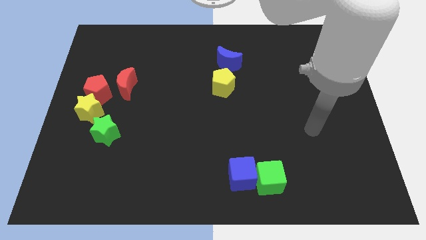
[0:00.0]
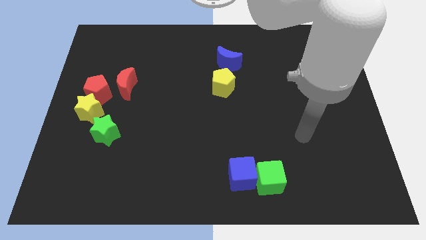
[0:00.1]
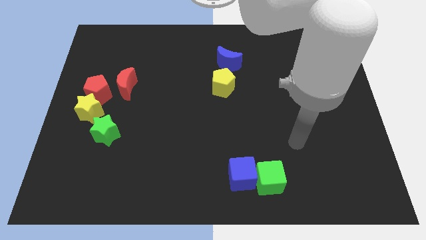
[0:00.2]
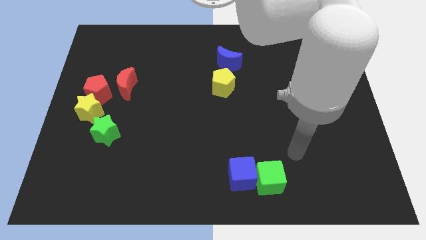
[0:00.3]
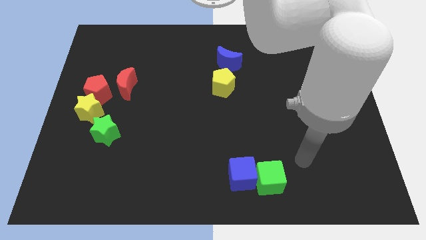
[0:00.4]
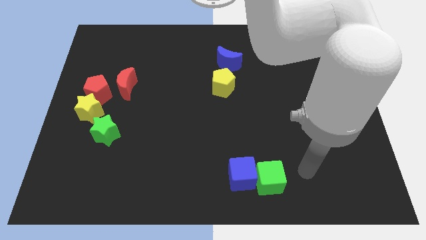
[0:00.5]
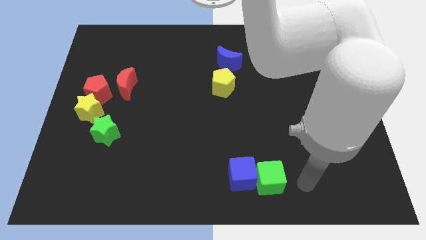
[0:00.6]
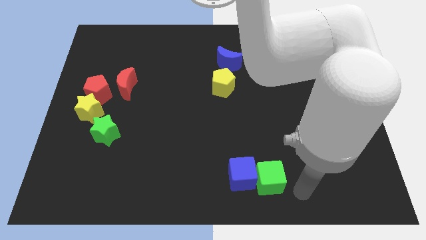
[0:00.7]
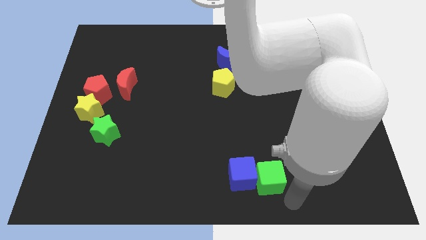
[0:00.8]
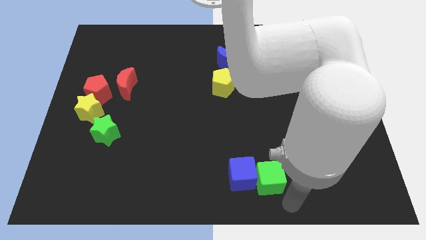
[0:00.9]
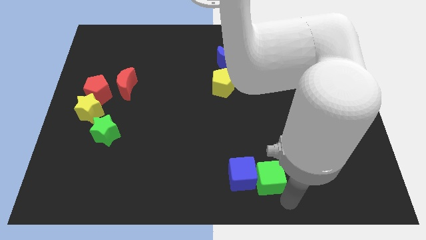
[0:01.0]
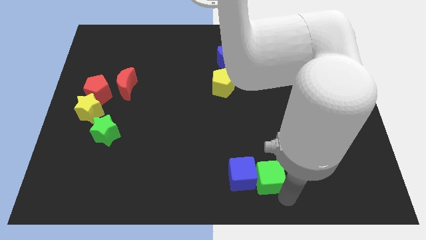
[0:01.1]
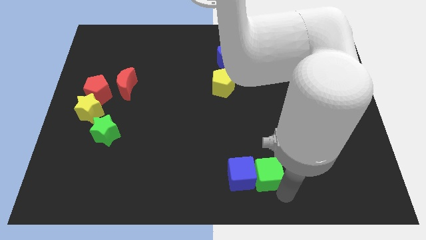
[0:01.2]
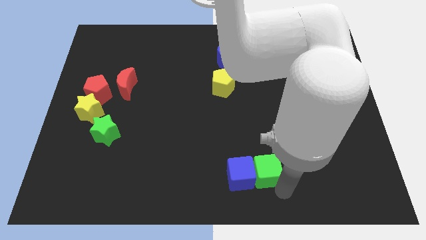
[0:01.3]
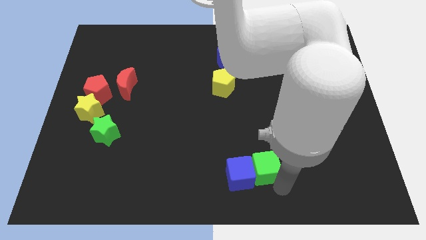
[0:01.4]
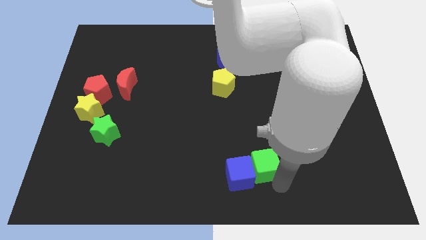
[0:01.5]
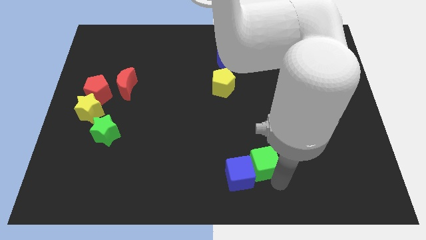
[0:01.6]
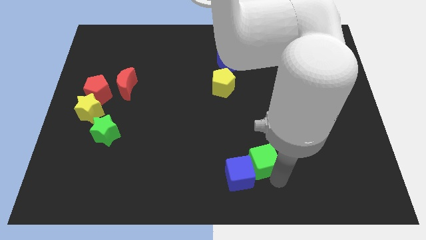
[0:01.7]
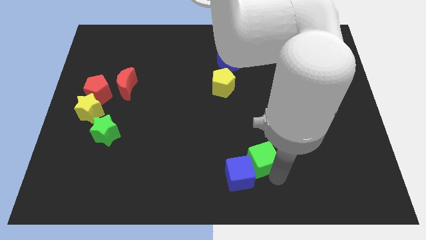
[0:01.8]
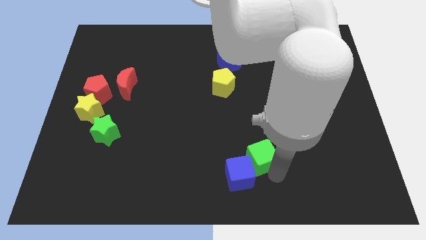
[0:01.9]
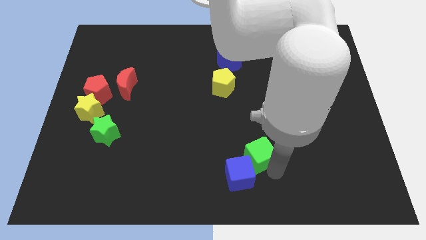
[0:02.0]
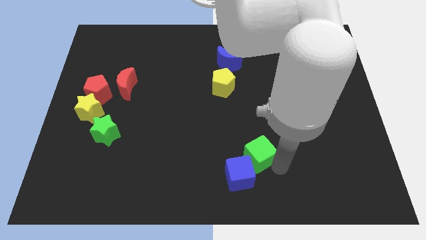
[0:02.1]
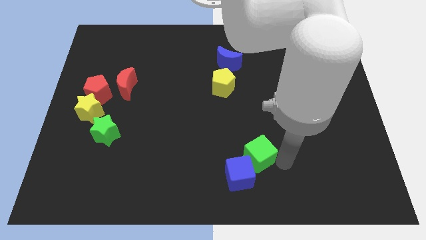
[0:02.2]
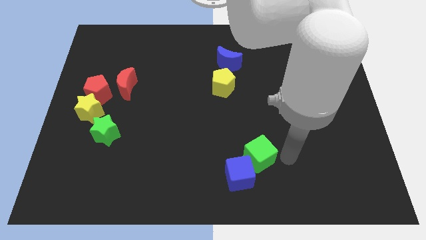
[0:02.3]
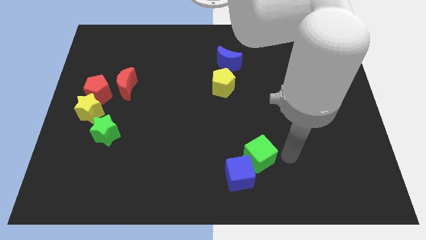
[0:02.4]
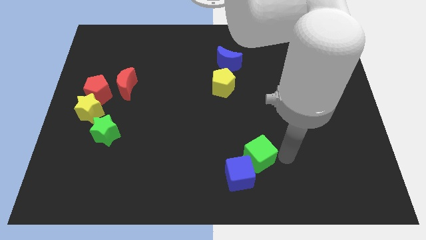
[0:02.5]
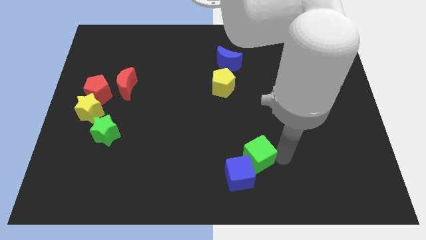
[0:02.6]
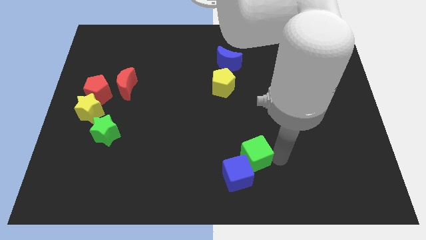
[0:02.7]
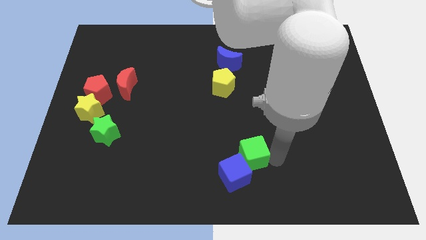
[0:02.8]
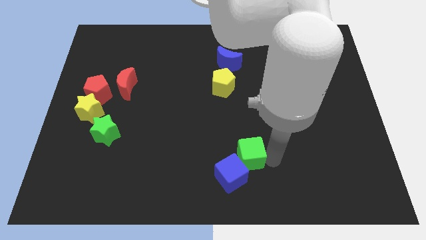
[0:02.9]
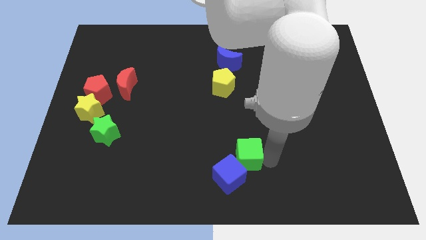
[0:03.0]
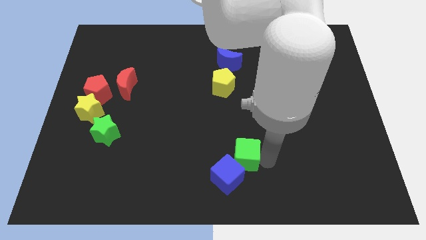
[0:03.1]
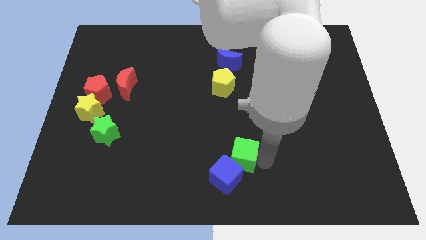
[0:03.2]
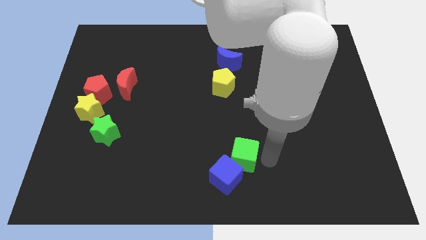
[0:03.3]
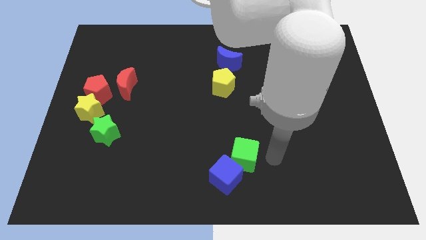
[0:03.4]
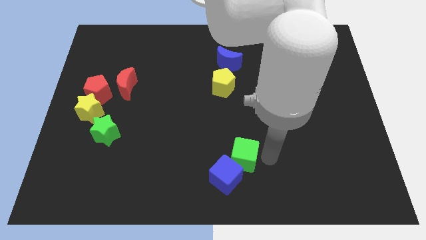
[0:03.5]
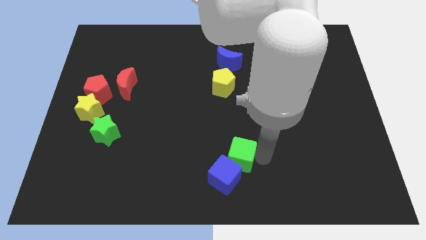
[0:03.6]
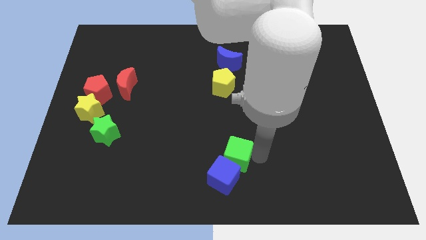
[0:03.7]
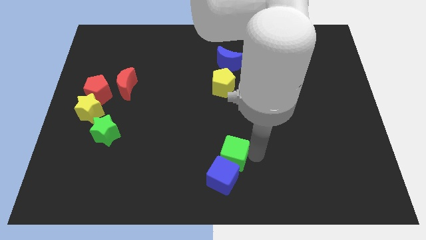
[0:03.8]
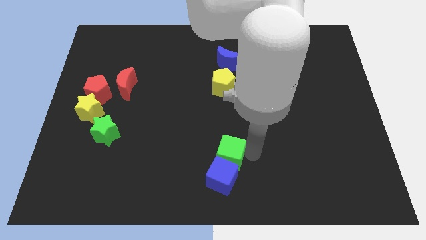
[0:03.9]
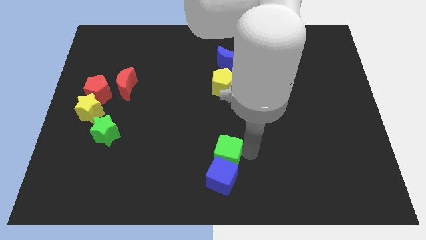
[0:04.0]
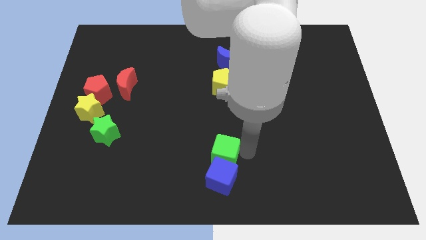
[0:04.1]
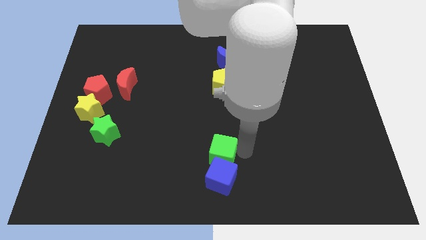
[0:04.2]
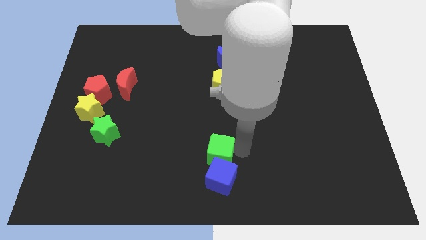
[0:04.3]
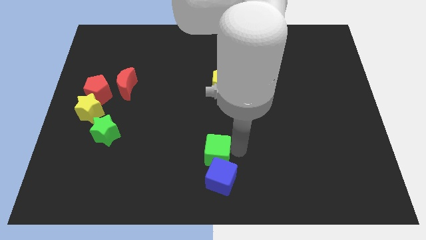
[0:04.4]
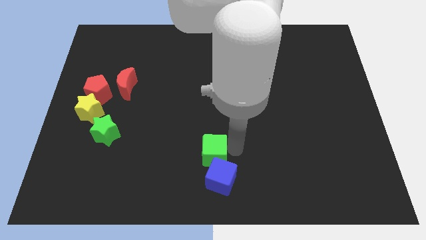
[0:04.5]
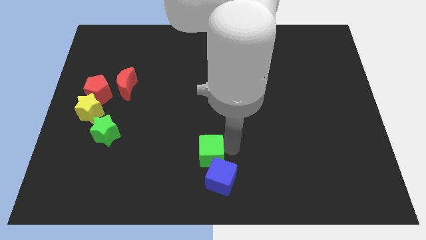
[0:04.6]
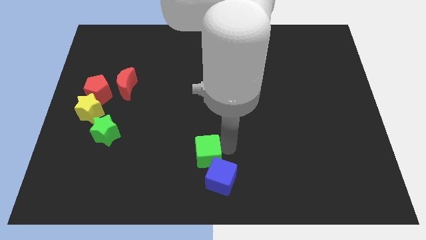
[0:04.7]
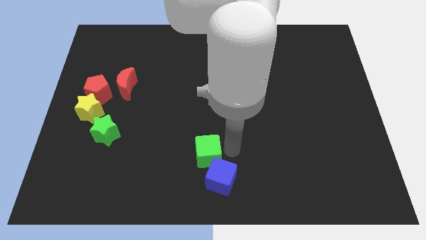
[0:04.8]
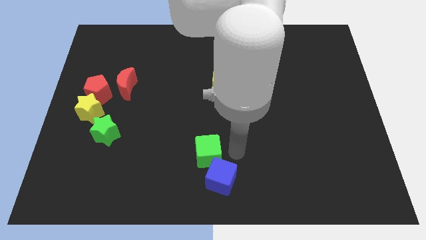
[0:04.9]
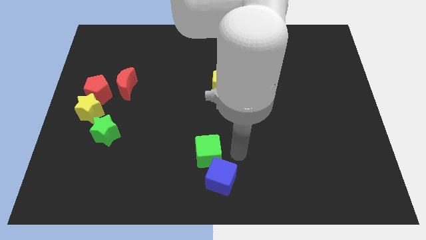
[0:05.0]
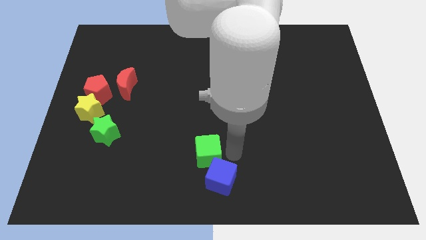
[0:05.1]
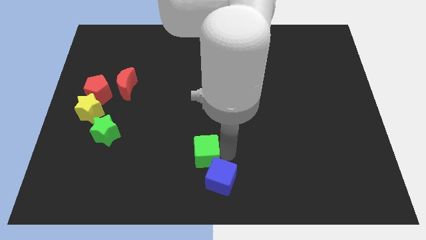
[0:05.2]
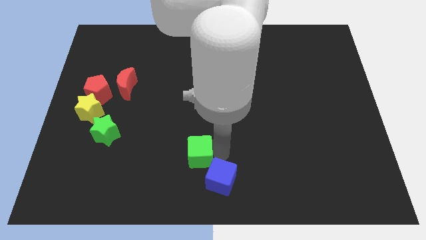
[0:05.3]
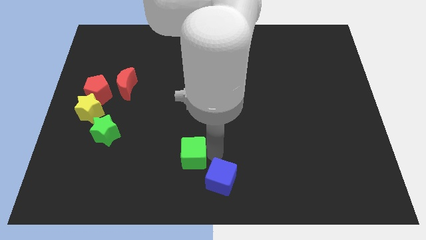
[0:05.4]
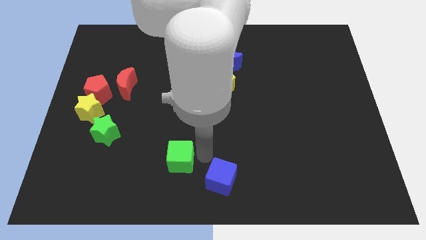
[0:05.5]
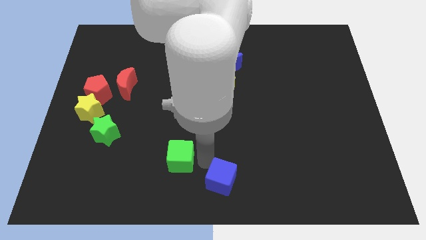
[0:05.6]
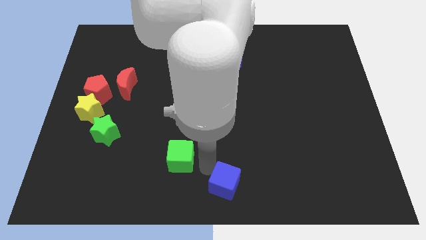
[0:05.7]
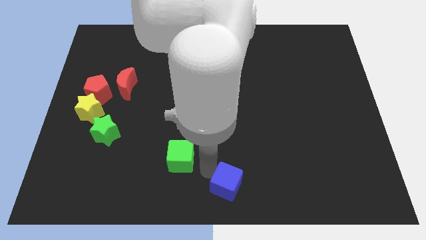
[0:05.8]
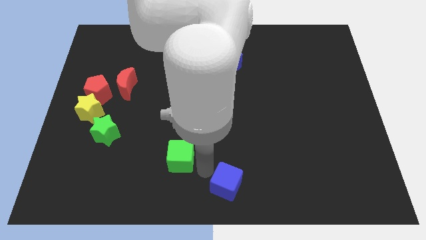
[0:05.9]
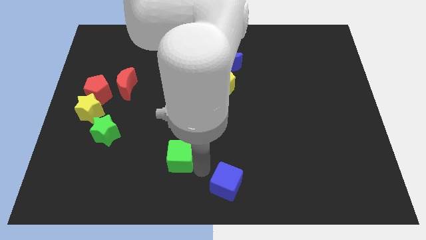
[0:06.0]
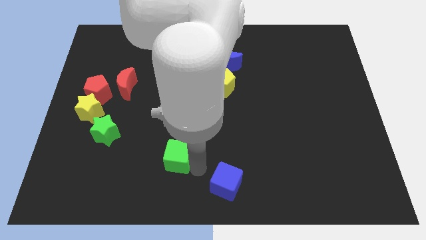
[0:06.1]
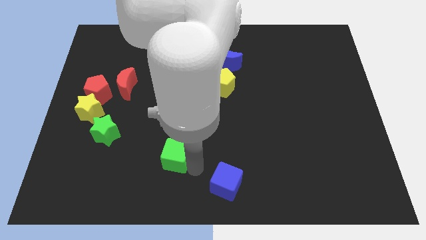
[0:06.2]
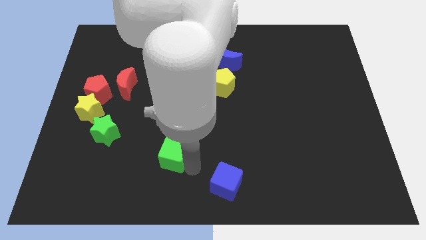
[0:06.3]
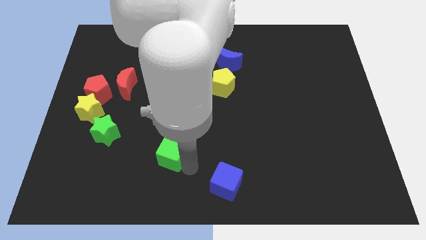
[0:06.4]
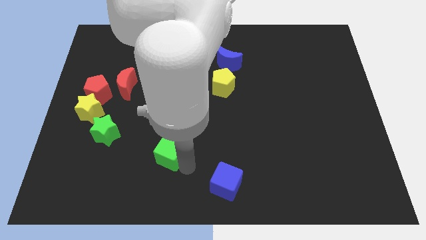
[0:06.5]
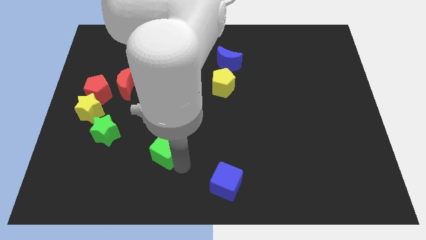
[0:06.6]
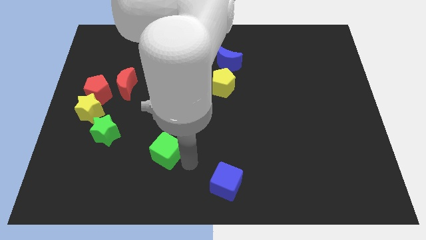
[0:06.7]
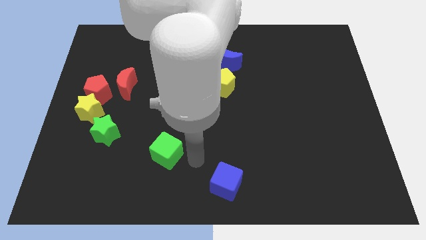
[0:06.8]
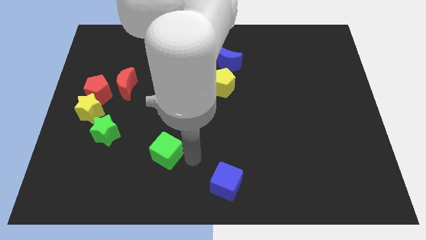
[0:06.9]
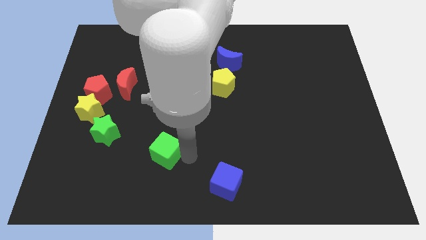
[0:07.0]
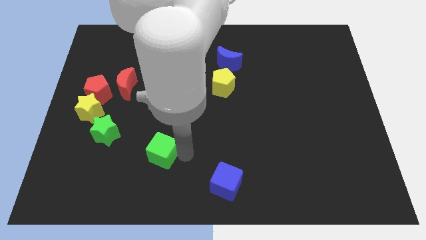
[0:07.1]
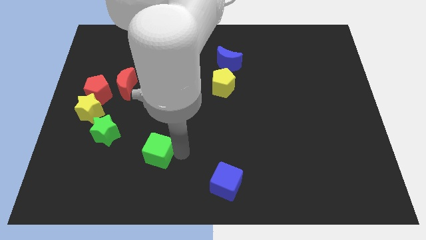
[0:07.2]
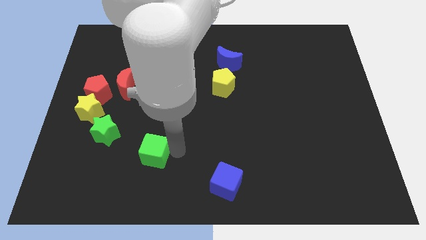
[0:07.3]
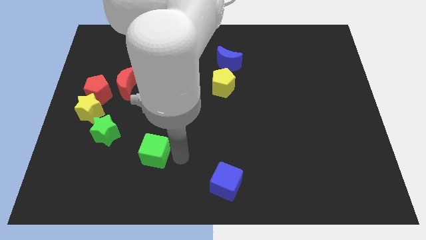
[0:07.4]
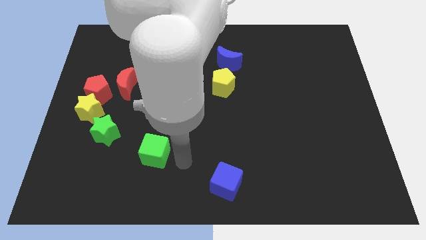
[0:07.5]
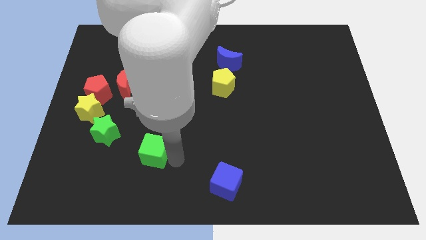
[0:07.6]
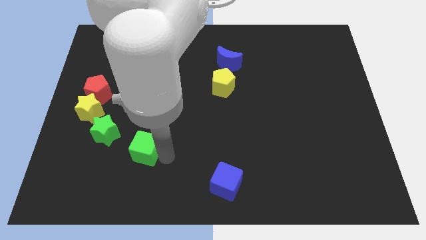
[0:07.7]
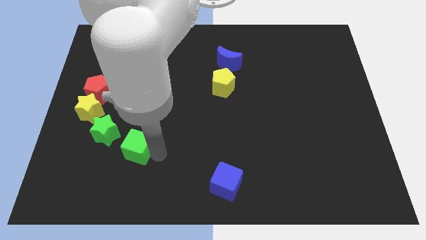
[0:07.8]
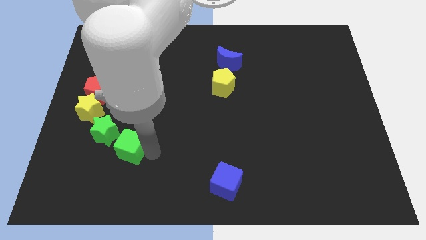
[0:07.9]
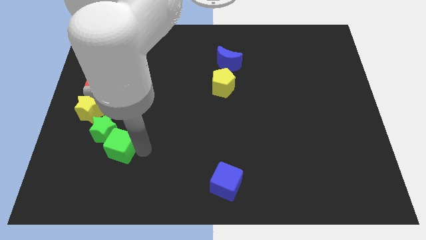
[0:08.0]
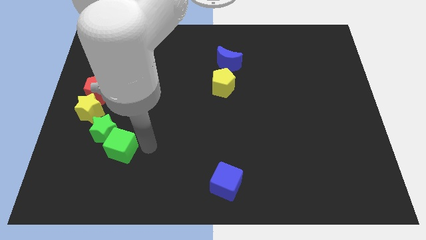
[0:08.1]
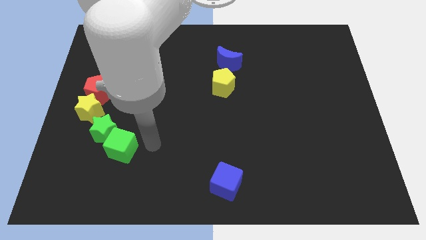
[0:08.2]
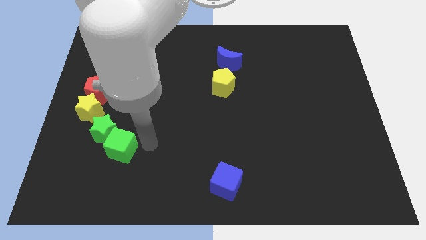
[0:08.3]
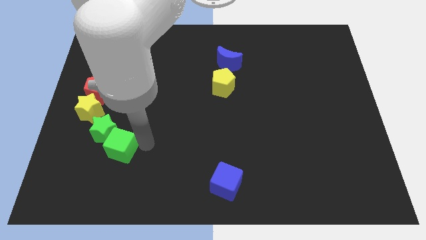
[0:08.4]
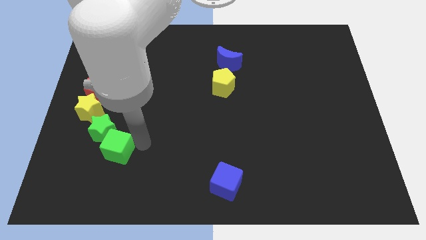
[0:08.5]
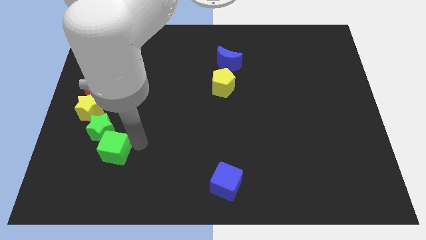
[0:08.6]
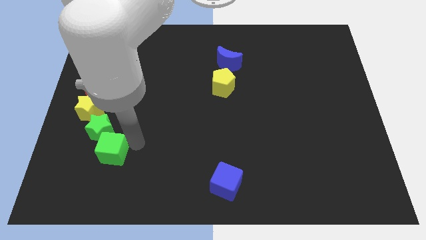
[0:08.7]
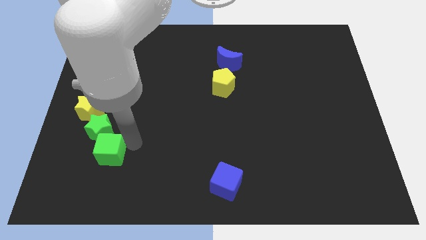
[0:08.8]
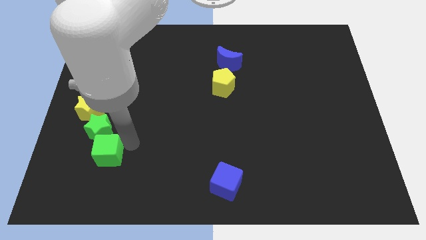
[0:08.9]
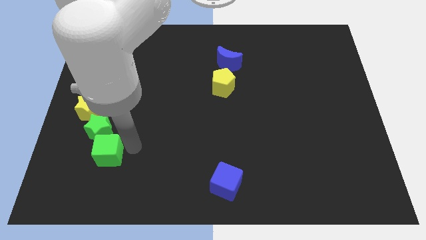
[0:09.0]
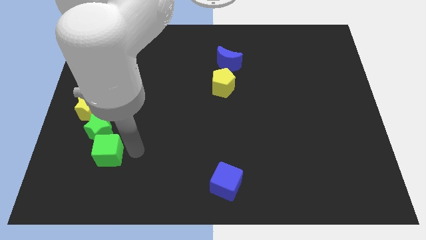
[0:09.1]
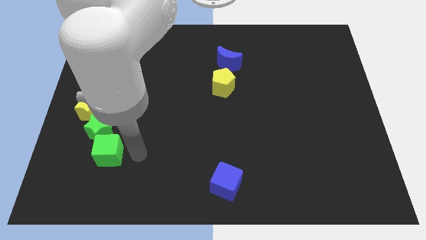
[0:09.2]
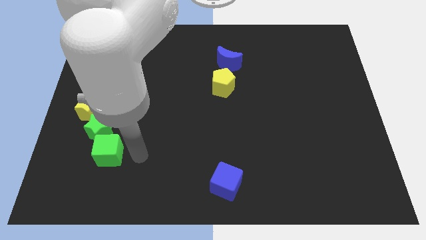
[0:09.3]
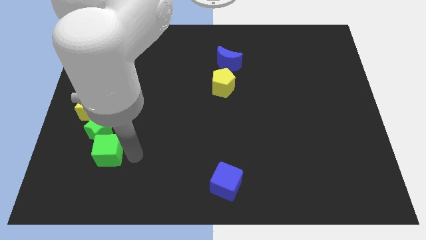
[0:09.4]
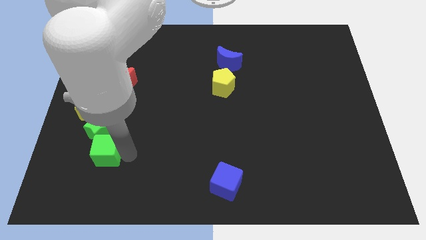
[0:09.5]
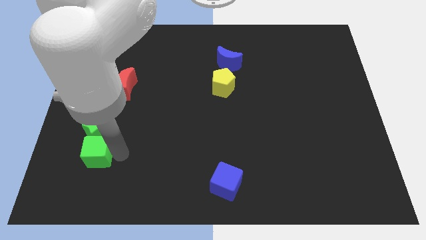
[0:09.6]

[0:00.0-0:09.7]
slide the green cube to the bottom left side of the green star
